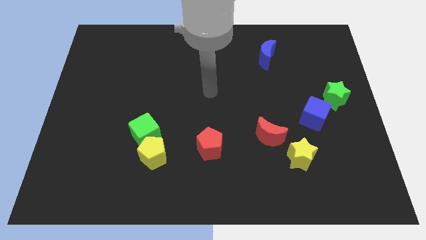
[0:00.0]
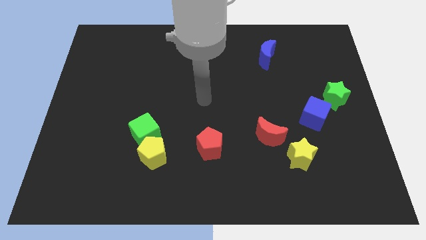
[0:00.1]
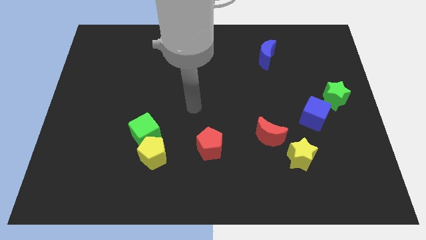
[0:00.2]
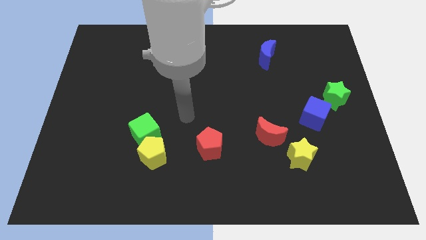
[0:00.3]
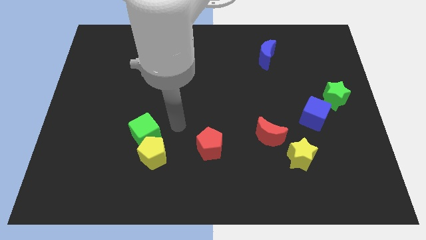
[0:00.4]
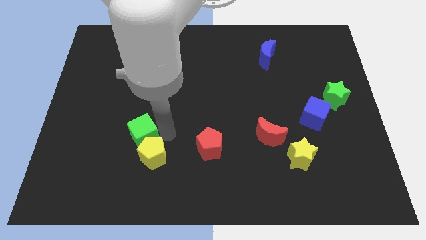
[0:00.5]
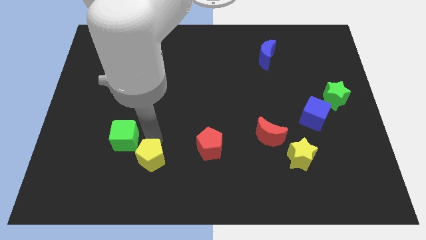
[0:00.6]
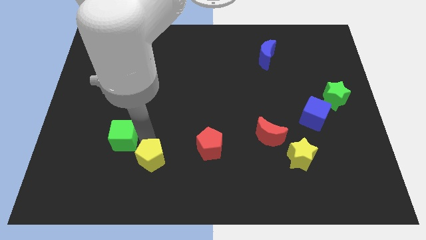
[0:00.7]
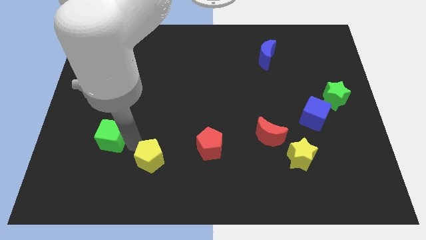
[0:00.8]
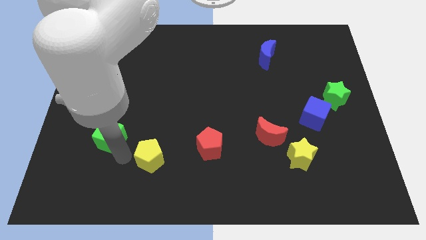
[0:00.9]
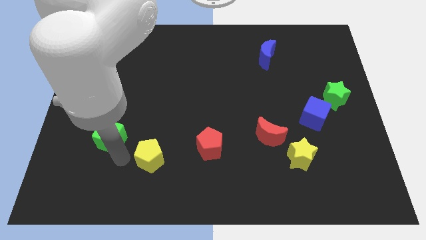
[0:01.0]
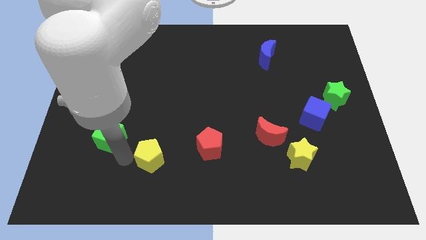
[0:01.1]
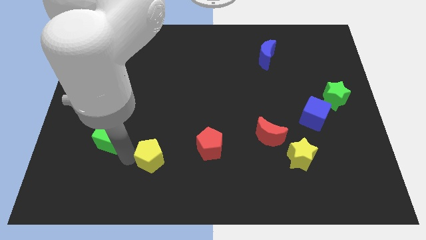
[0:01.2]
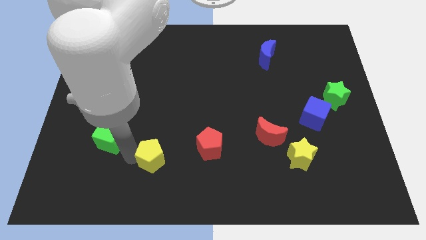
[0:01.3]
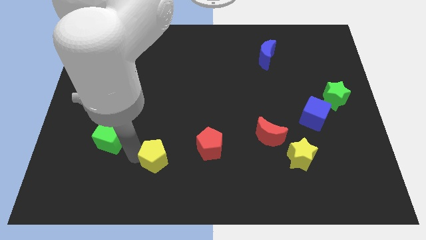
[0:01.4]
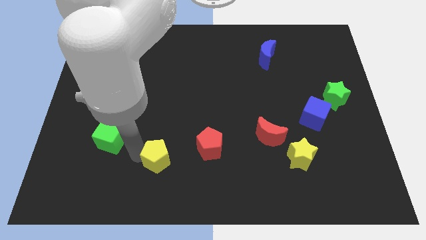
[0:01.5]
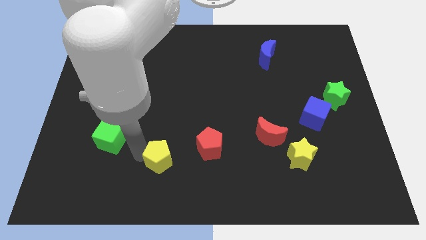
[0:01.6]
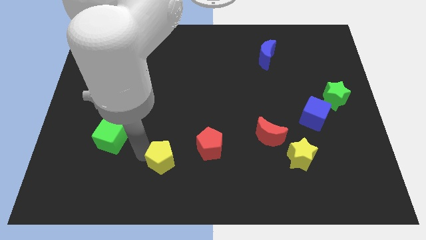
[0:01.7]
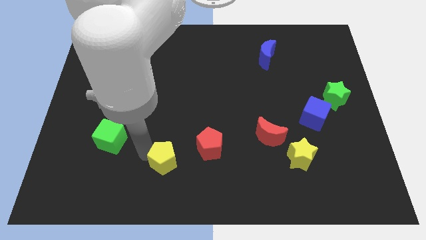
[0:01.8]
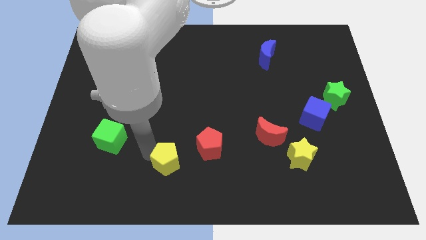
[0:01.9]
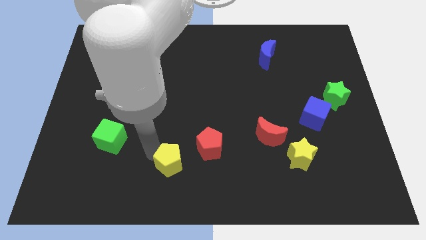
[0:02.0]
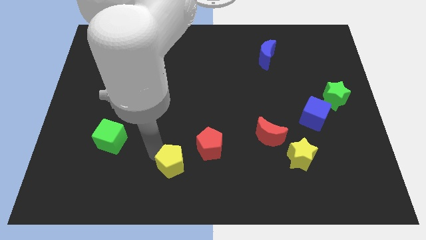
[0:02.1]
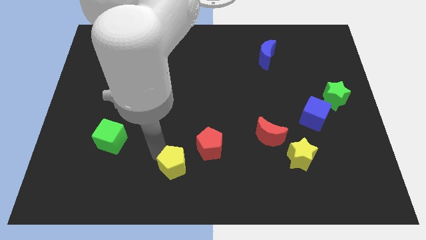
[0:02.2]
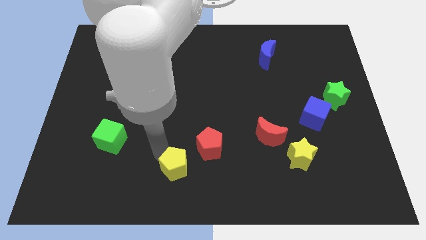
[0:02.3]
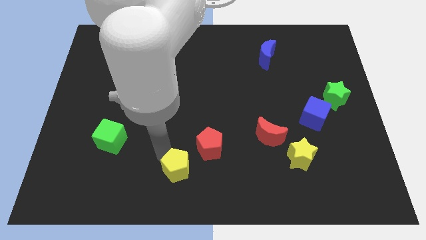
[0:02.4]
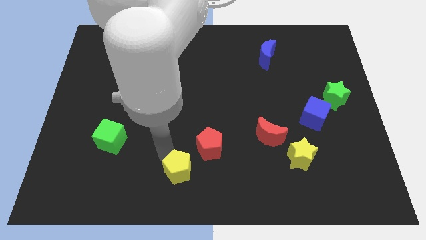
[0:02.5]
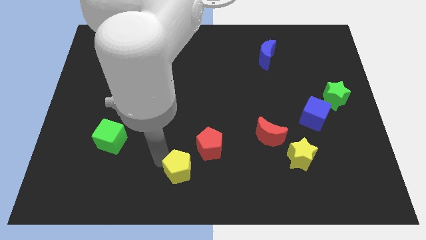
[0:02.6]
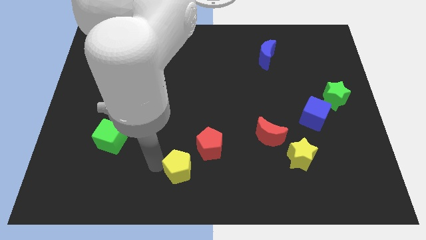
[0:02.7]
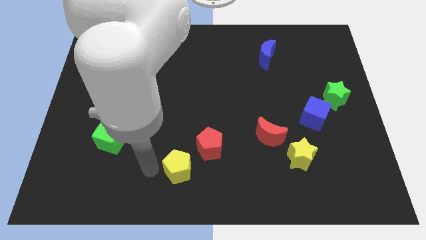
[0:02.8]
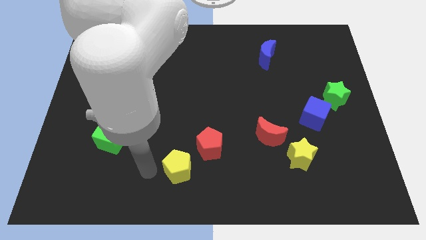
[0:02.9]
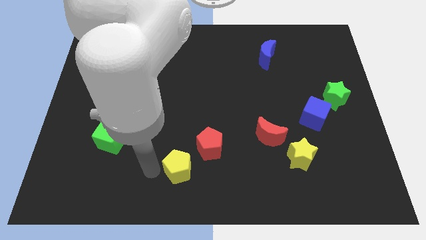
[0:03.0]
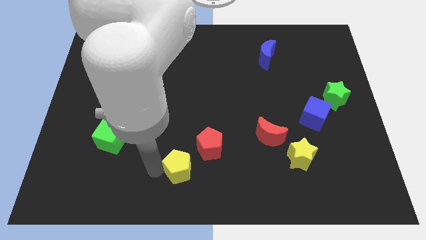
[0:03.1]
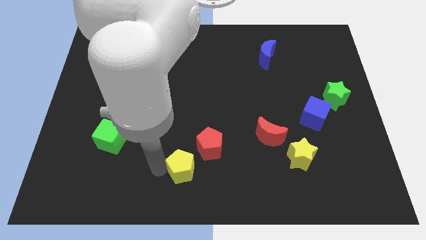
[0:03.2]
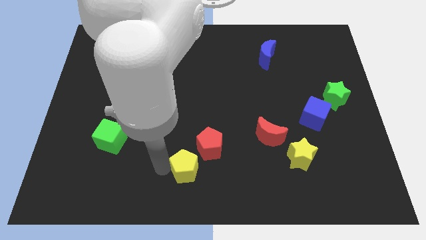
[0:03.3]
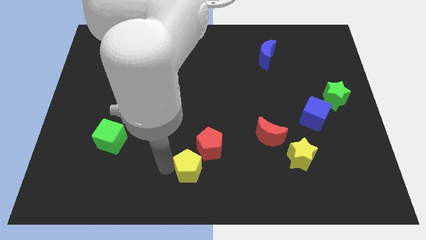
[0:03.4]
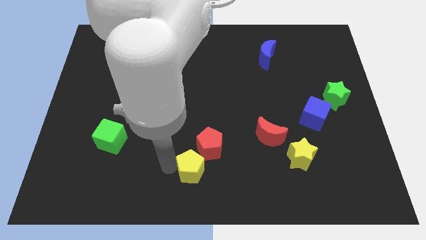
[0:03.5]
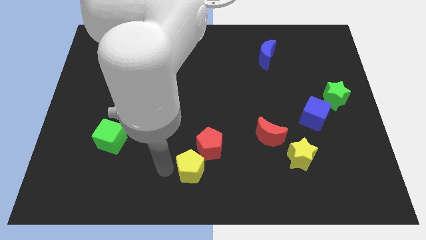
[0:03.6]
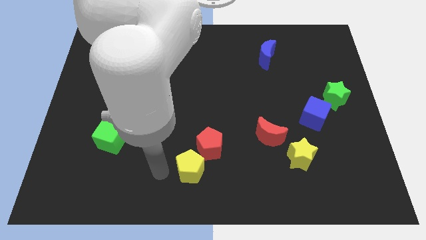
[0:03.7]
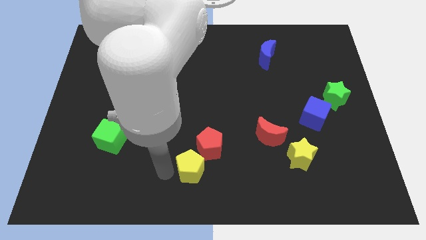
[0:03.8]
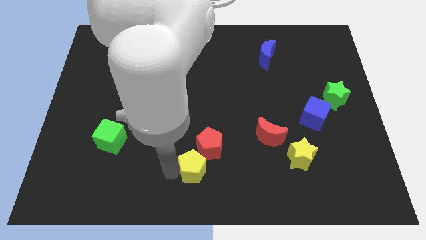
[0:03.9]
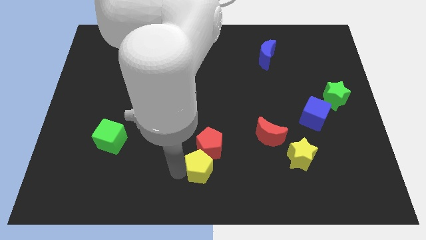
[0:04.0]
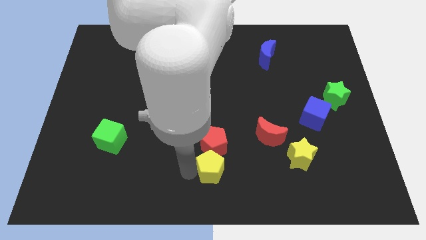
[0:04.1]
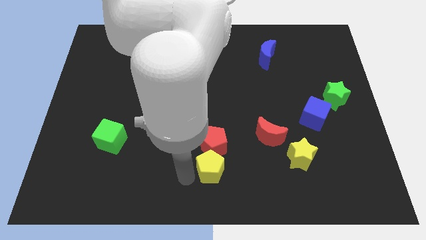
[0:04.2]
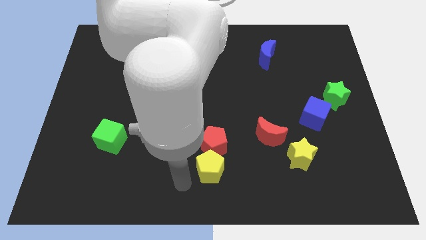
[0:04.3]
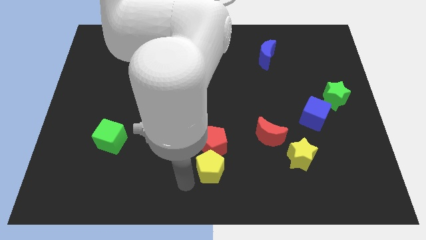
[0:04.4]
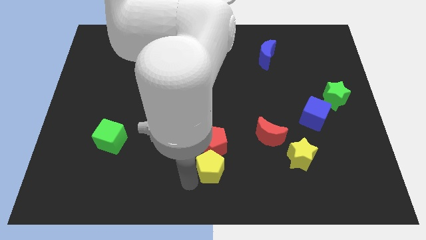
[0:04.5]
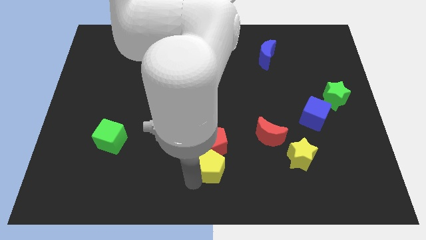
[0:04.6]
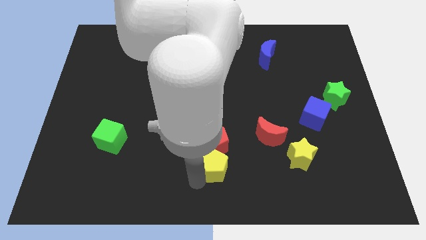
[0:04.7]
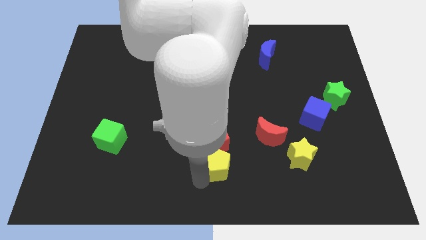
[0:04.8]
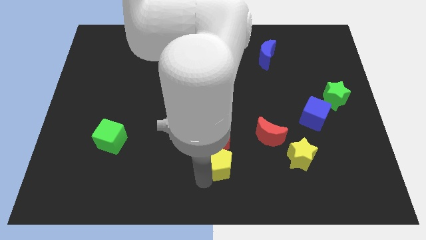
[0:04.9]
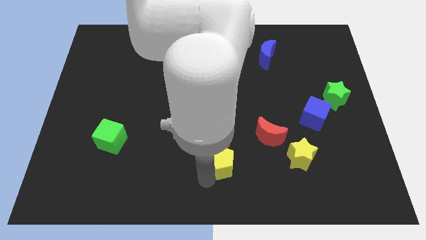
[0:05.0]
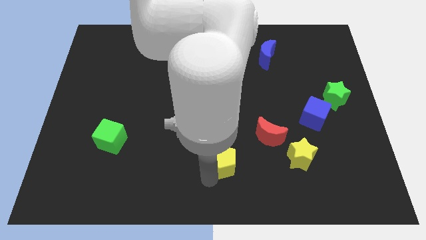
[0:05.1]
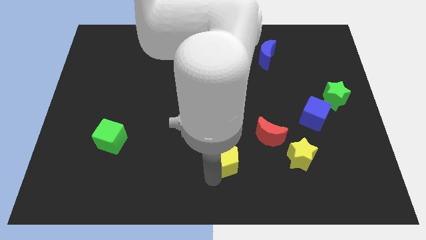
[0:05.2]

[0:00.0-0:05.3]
push the yellow pentagon left of the yellow star

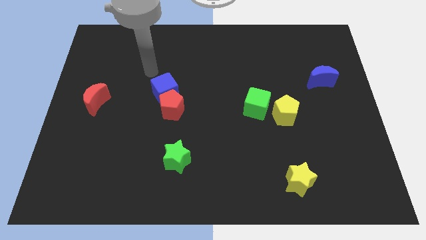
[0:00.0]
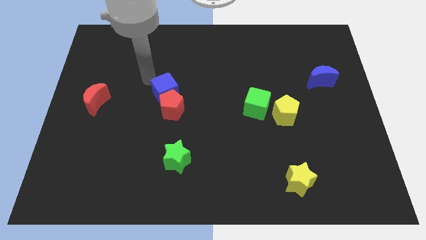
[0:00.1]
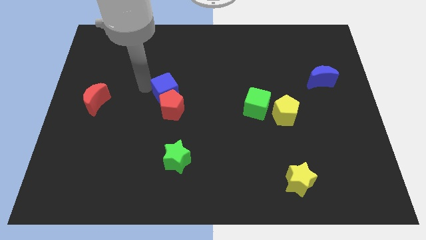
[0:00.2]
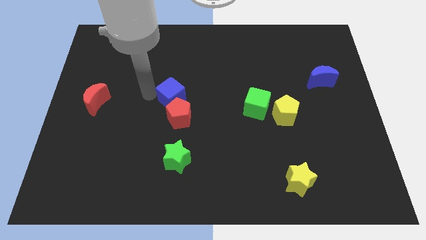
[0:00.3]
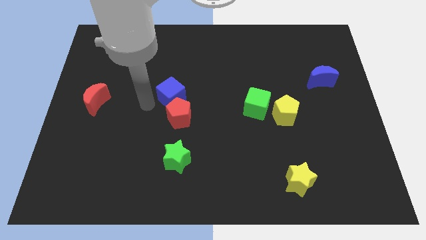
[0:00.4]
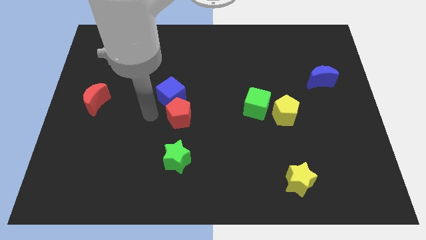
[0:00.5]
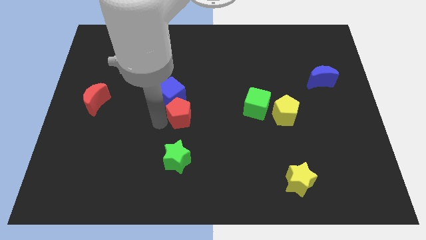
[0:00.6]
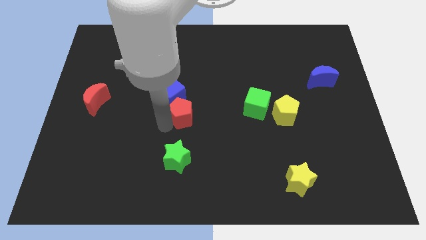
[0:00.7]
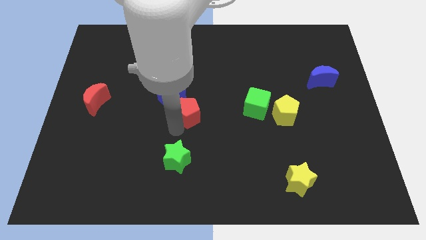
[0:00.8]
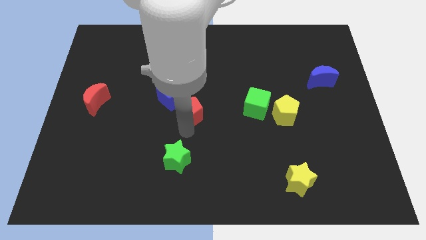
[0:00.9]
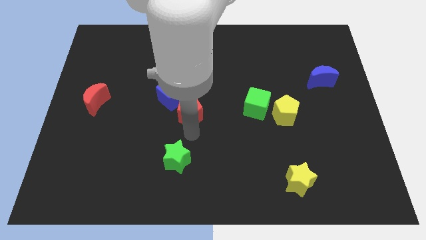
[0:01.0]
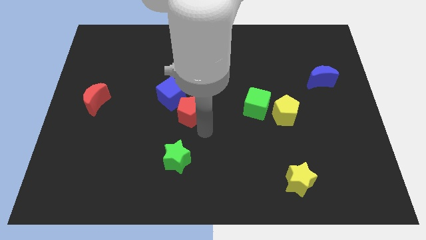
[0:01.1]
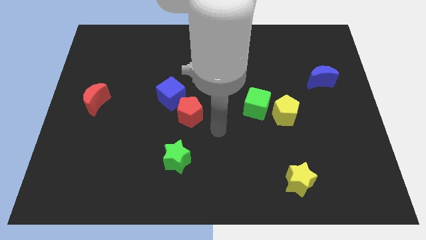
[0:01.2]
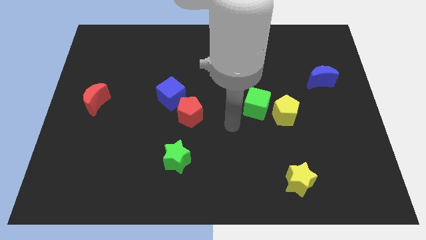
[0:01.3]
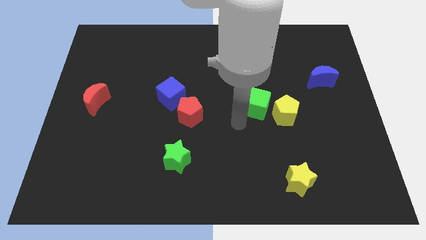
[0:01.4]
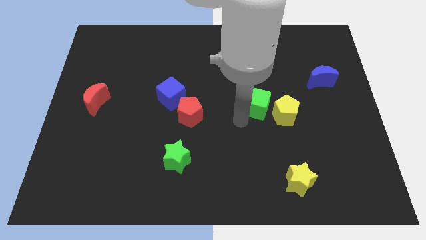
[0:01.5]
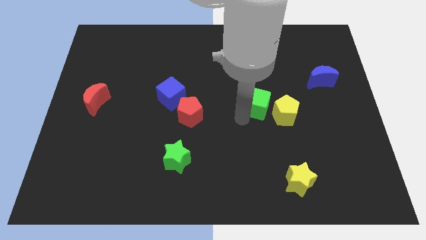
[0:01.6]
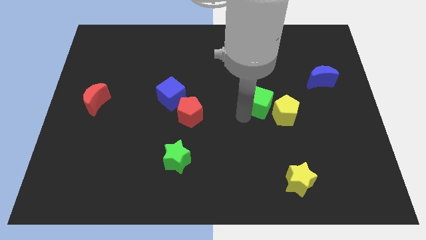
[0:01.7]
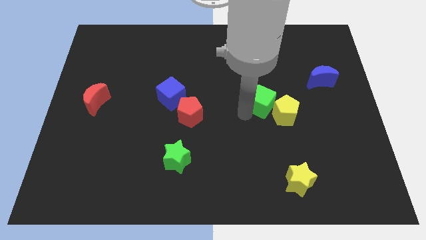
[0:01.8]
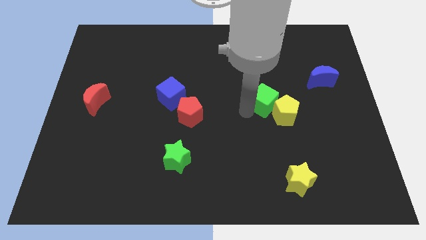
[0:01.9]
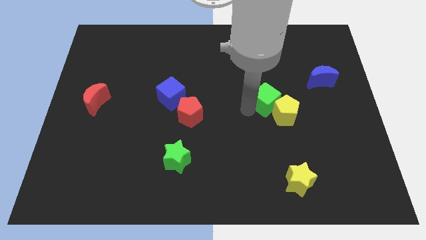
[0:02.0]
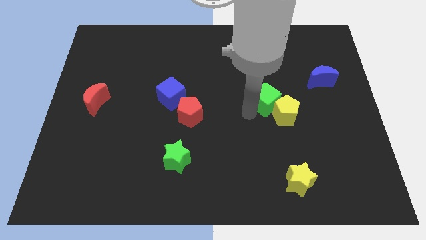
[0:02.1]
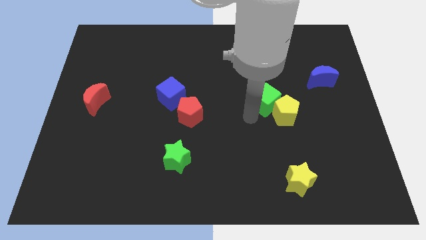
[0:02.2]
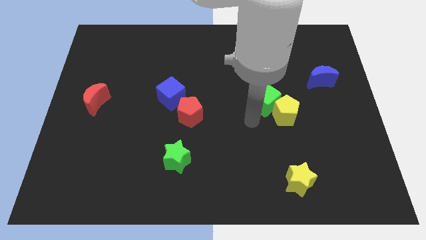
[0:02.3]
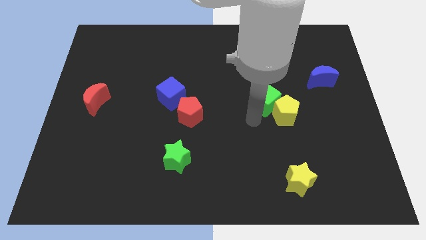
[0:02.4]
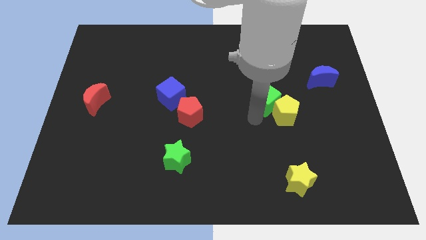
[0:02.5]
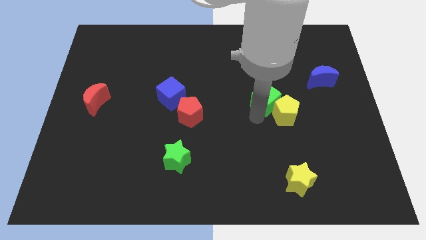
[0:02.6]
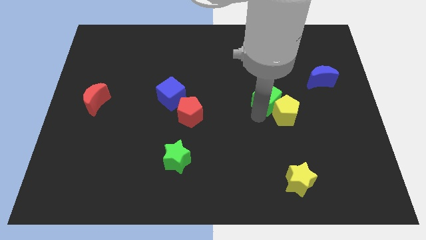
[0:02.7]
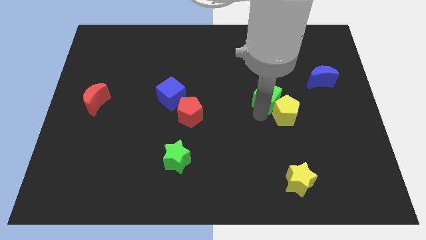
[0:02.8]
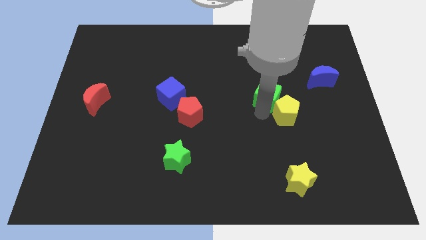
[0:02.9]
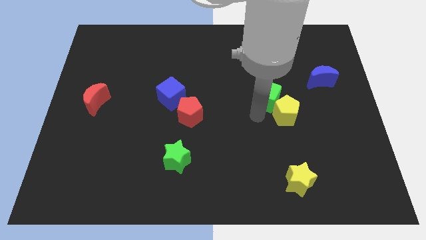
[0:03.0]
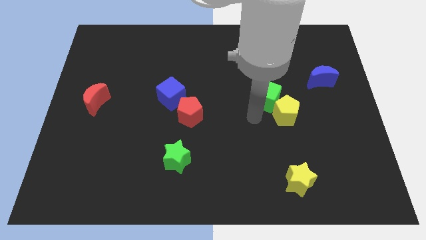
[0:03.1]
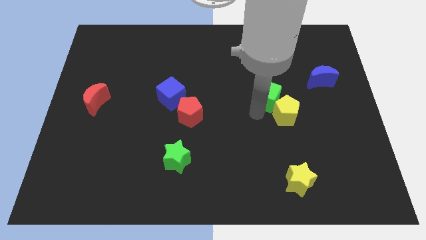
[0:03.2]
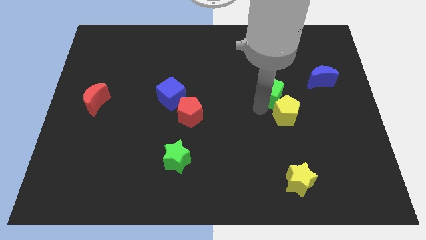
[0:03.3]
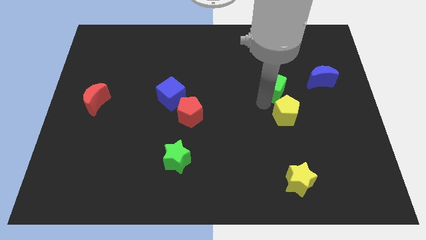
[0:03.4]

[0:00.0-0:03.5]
slide the green cube to the left of the blue moon
